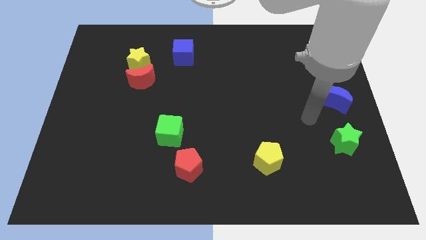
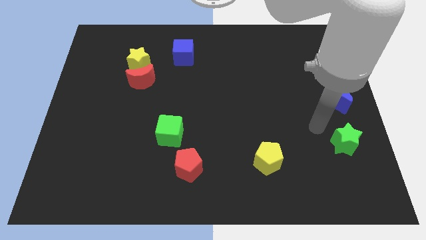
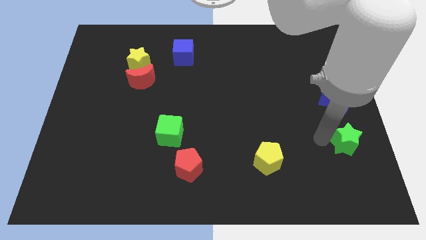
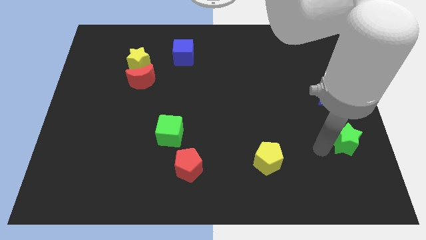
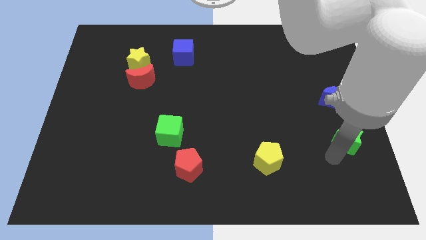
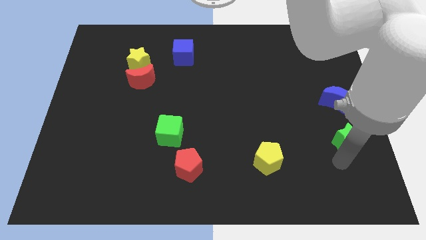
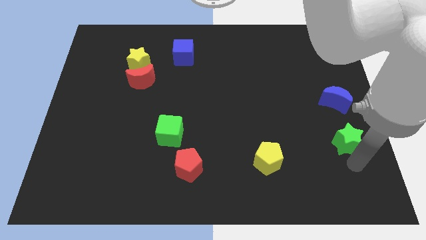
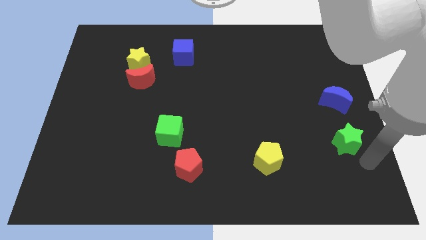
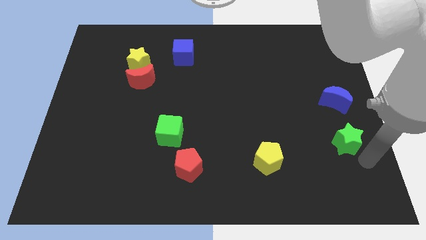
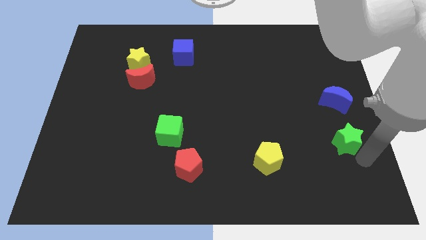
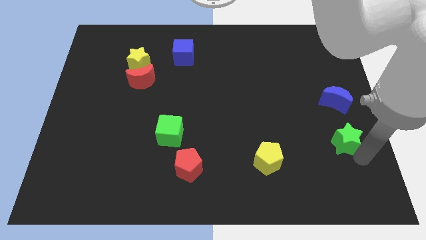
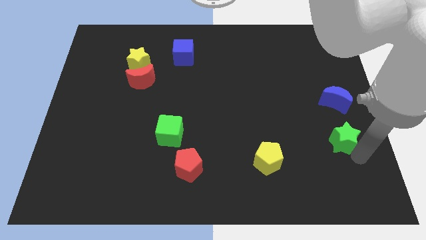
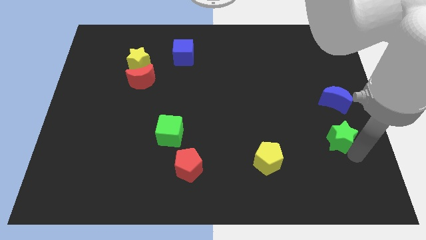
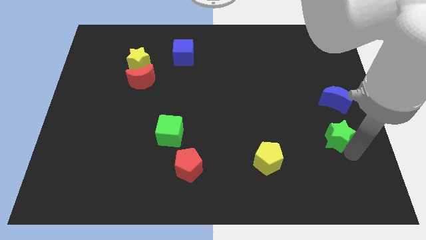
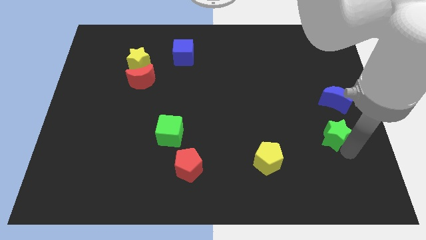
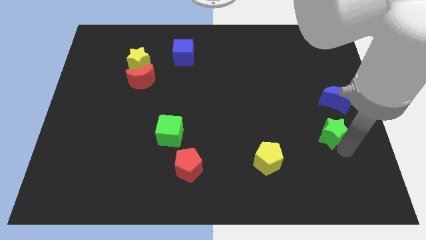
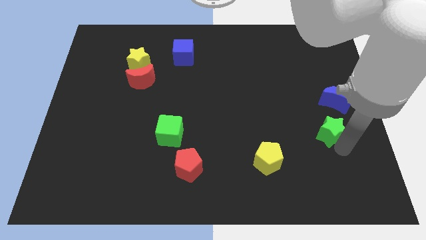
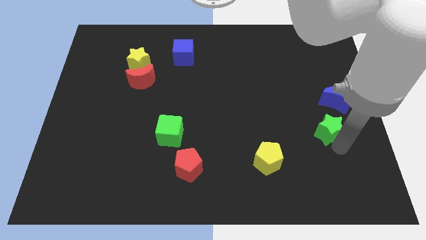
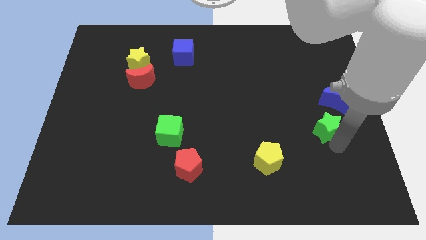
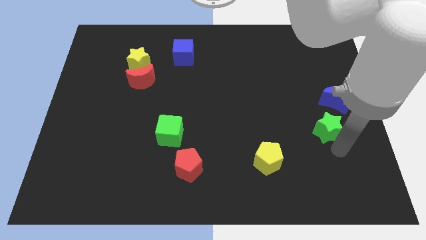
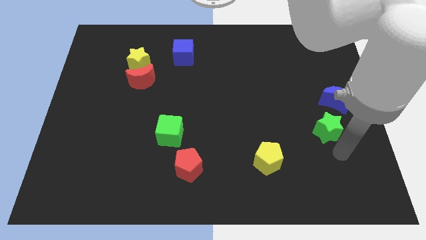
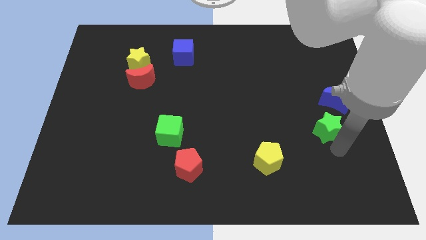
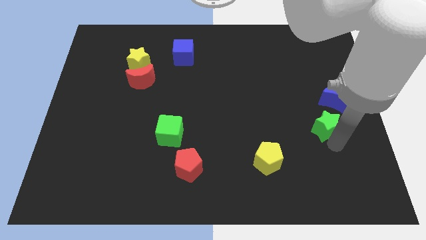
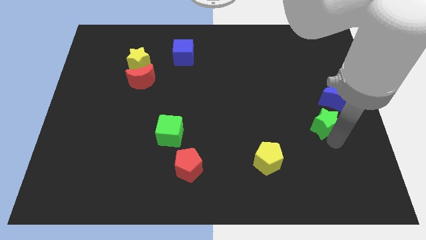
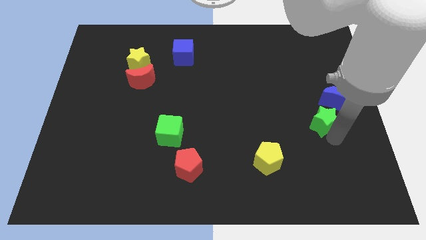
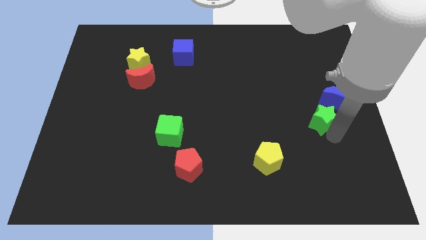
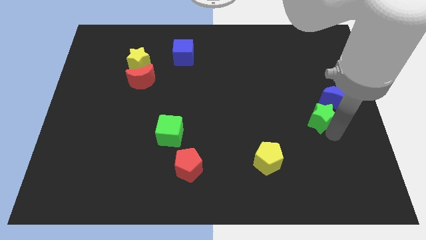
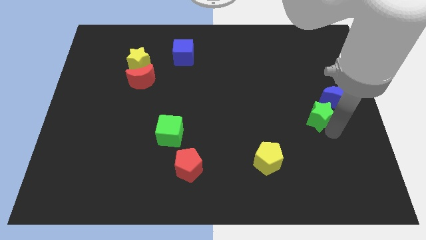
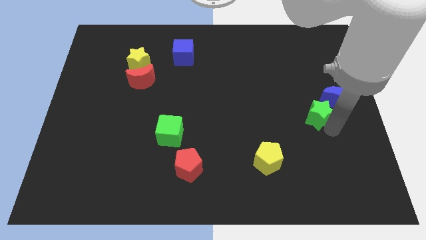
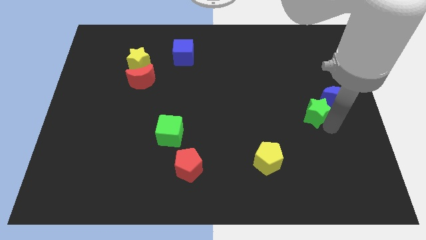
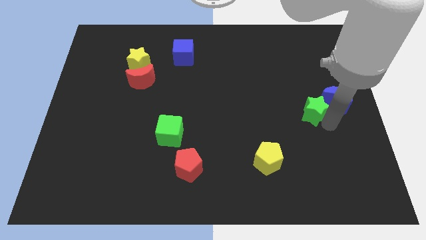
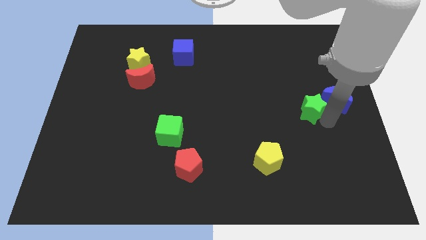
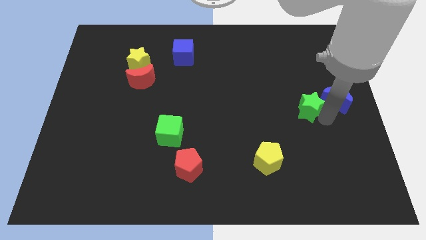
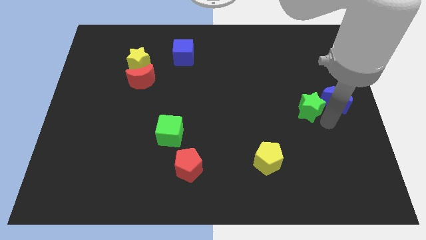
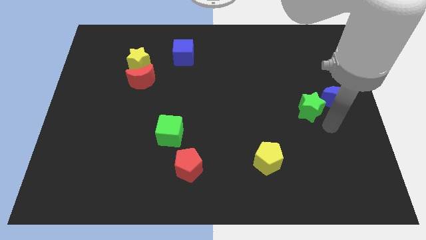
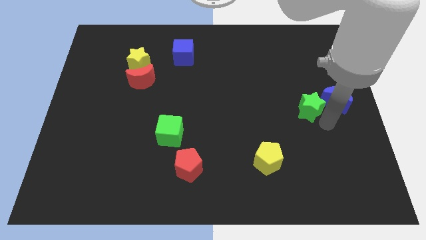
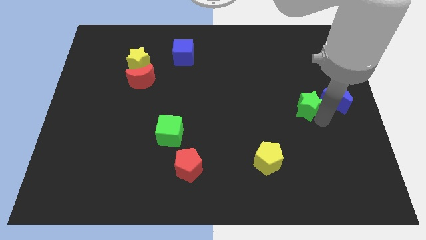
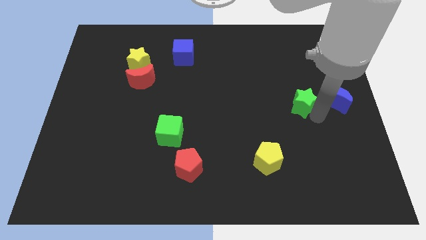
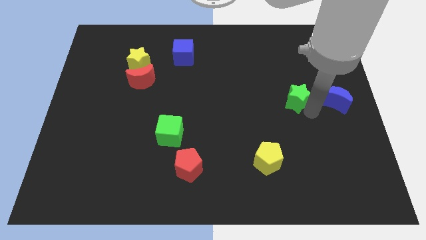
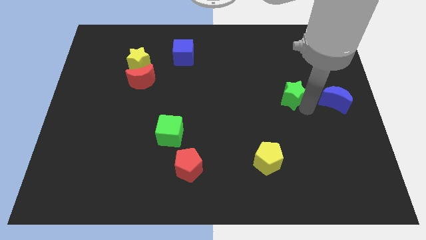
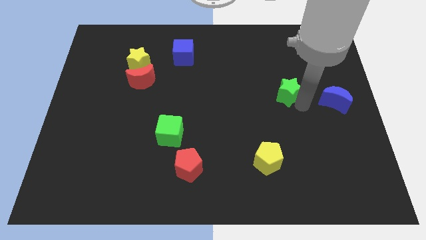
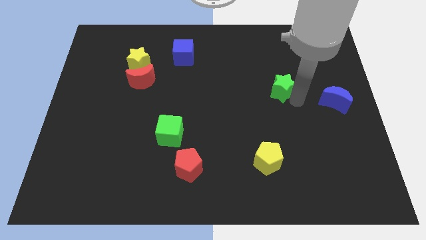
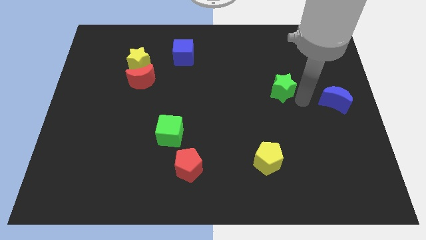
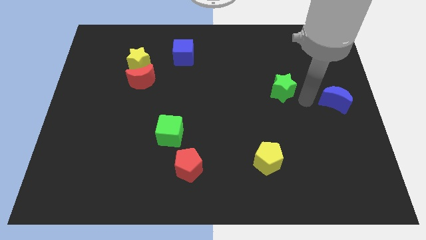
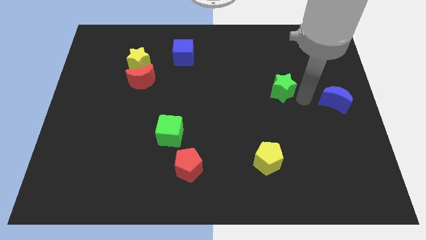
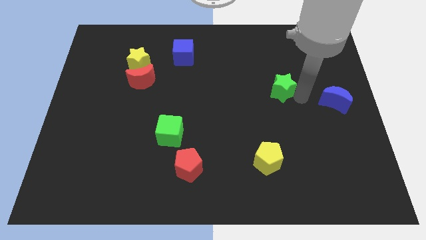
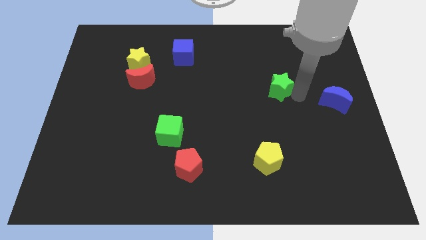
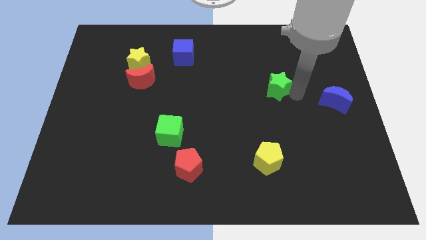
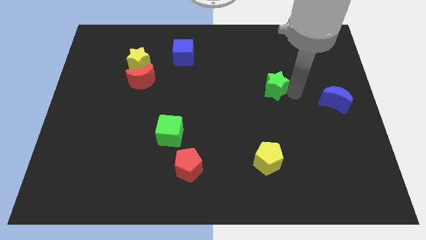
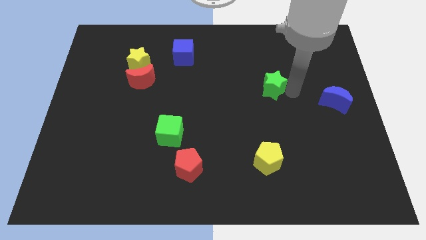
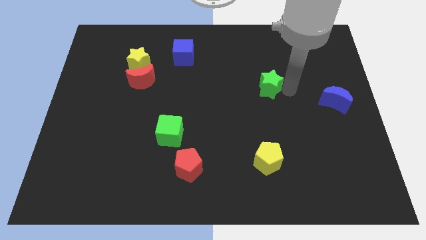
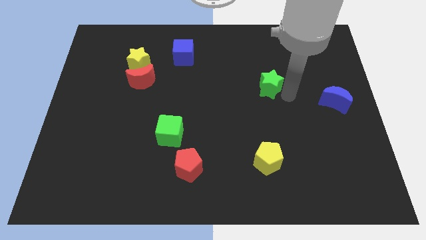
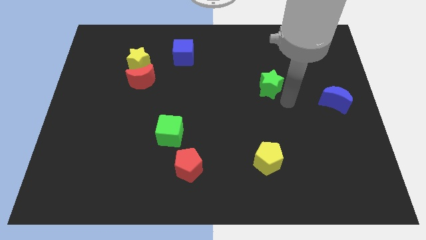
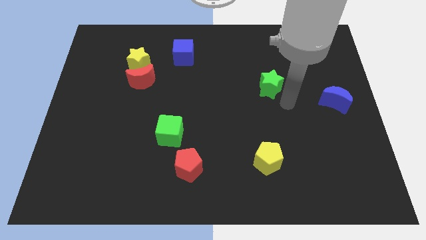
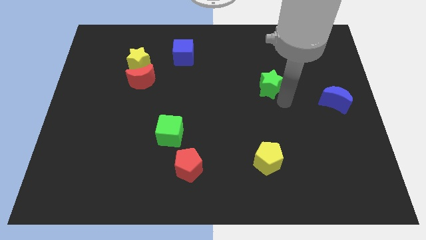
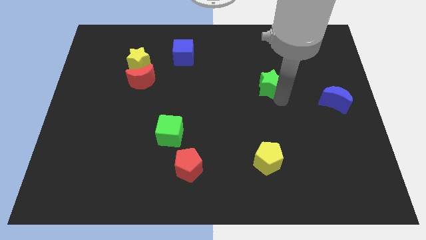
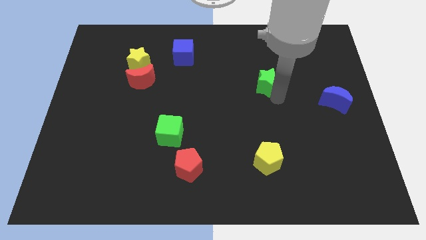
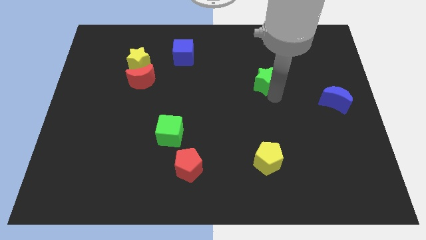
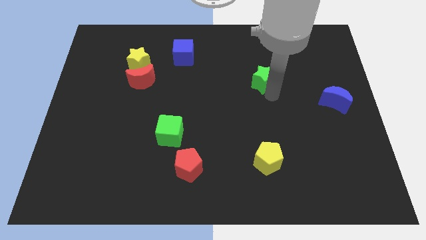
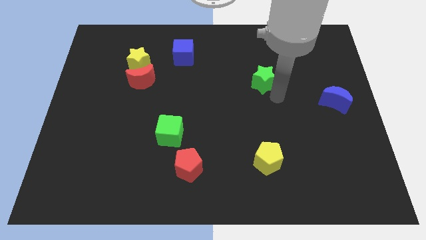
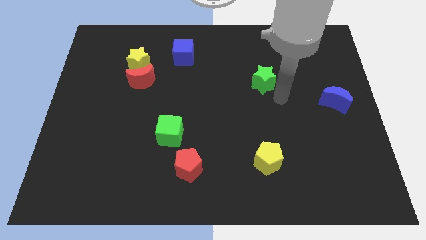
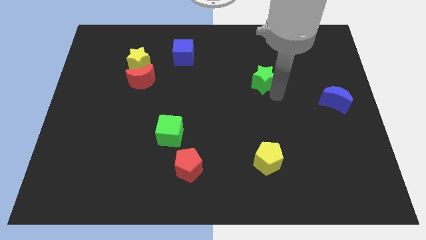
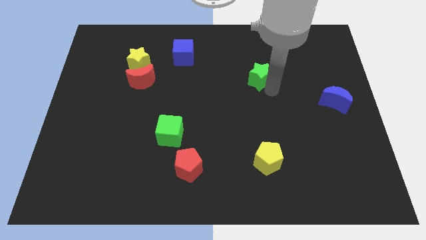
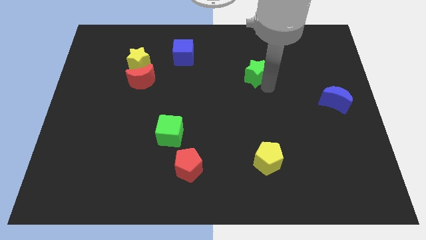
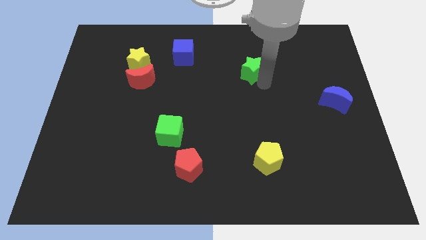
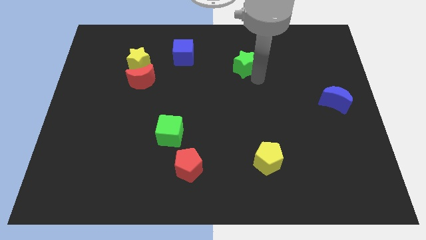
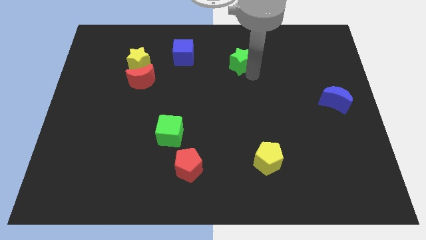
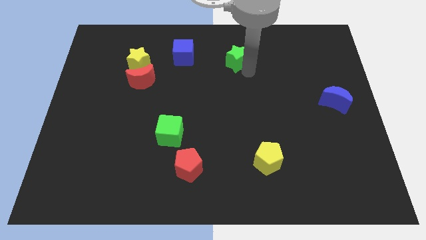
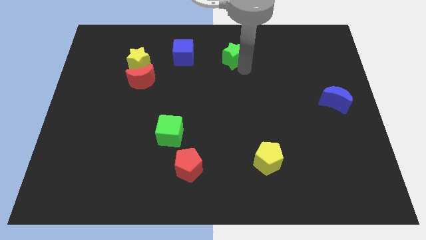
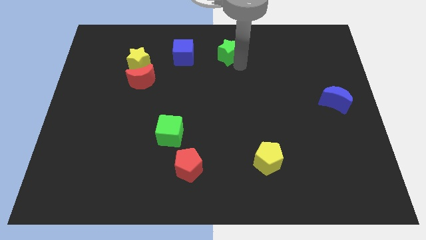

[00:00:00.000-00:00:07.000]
push the green star to the top
